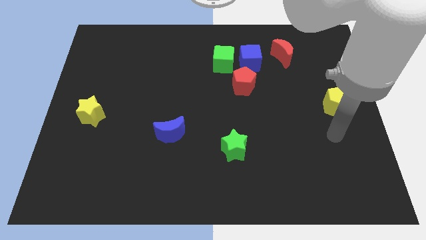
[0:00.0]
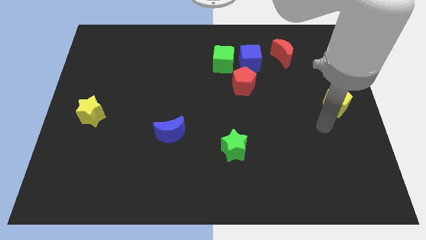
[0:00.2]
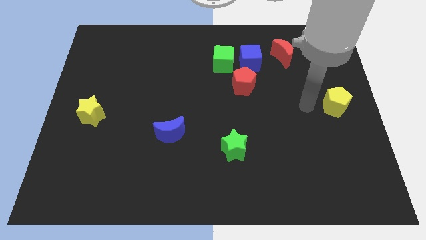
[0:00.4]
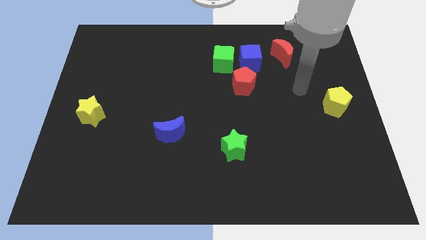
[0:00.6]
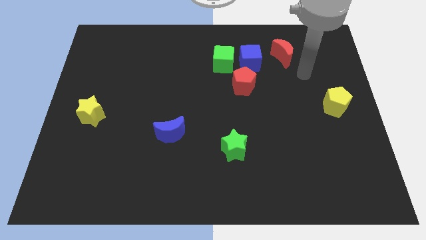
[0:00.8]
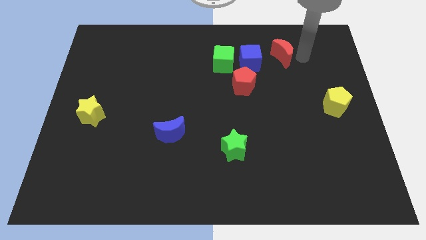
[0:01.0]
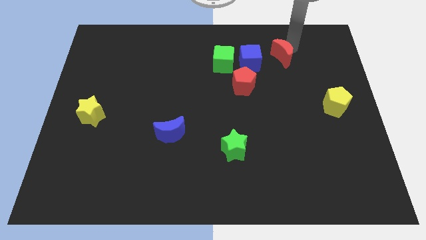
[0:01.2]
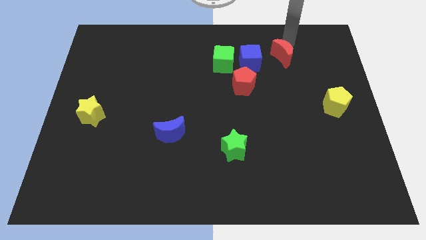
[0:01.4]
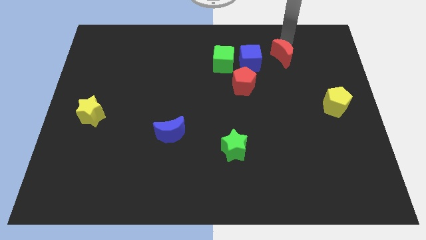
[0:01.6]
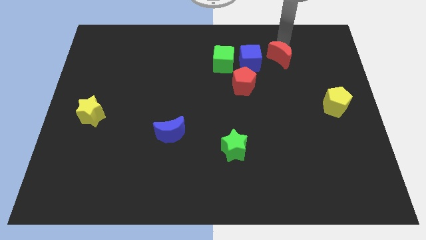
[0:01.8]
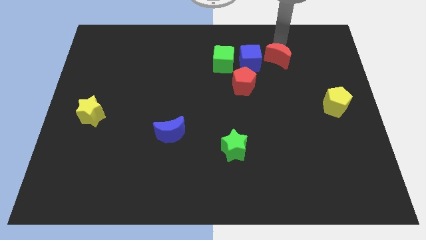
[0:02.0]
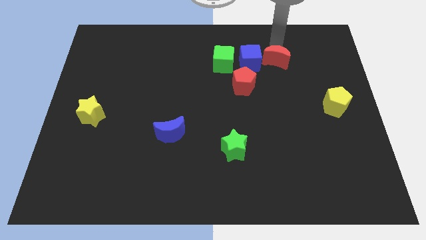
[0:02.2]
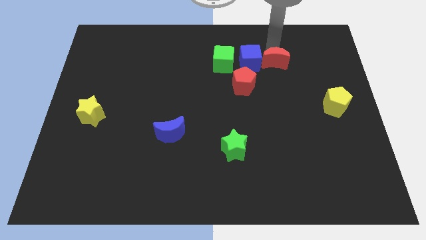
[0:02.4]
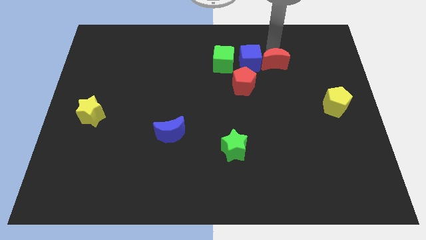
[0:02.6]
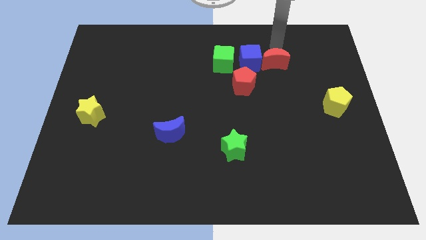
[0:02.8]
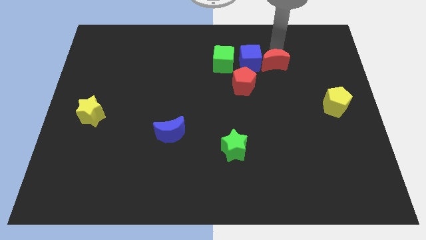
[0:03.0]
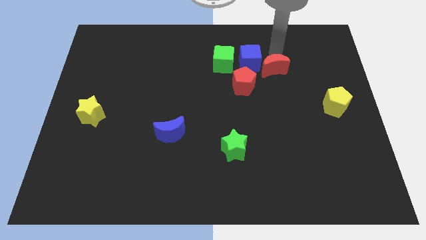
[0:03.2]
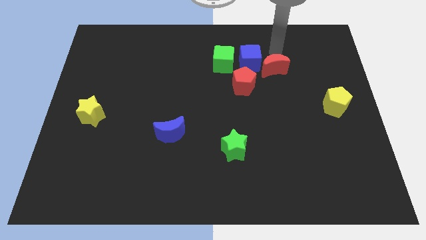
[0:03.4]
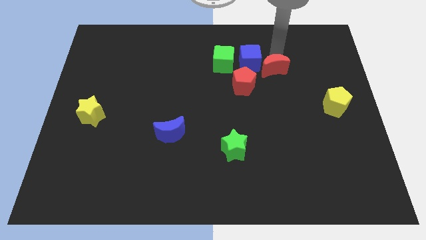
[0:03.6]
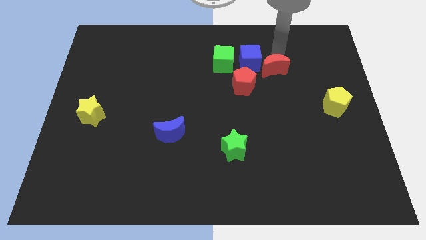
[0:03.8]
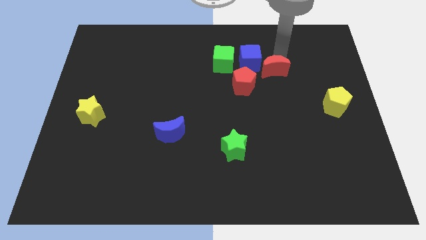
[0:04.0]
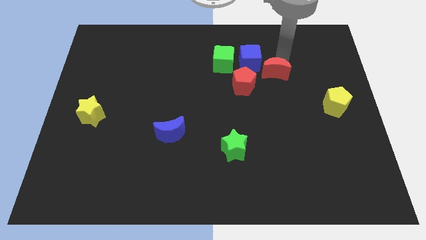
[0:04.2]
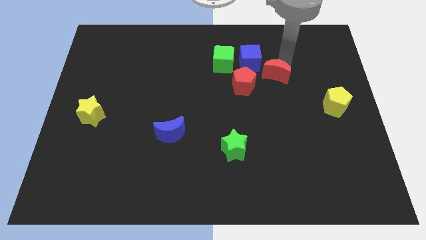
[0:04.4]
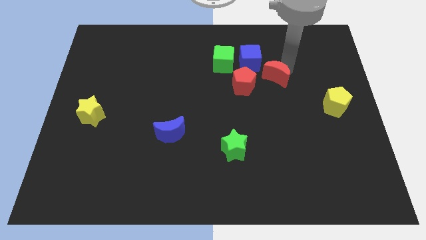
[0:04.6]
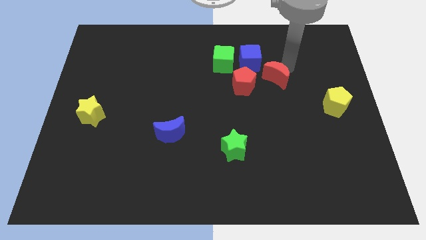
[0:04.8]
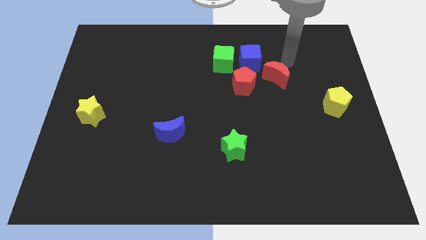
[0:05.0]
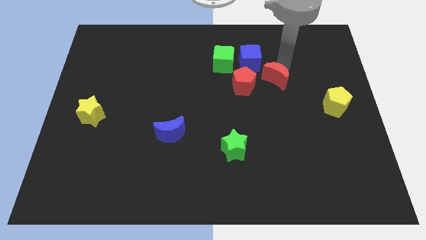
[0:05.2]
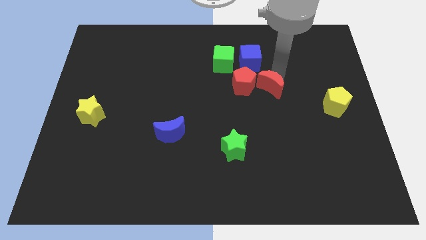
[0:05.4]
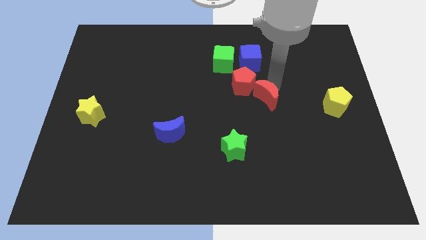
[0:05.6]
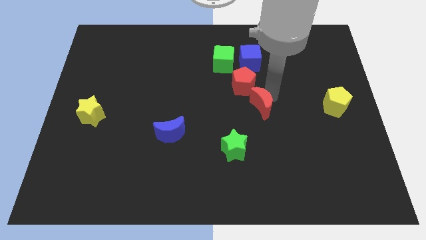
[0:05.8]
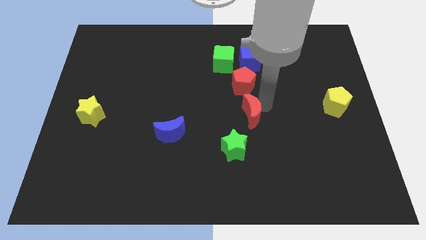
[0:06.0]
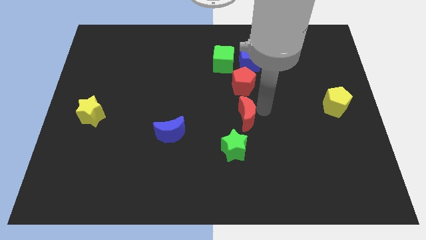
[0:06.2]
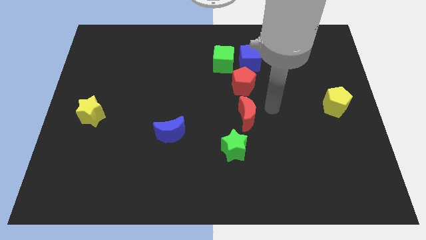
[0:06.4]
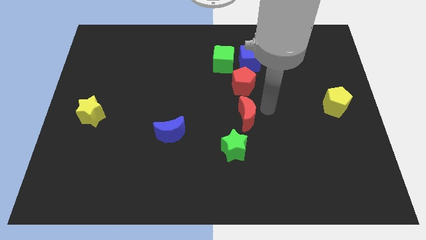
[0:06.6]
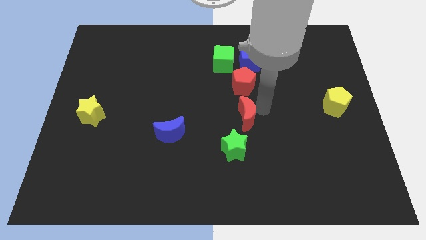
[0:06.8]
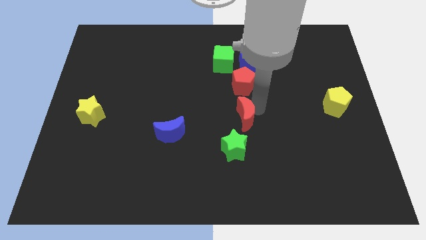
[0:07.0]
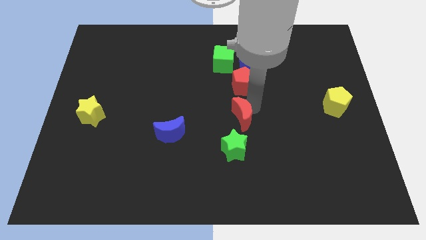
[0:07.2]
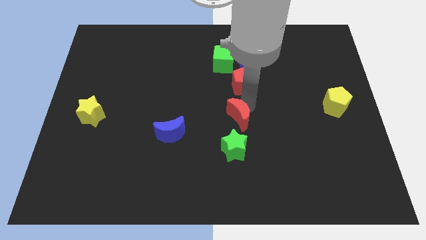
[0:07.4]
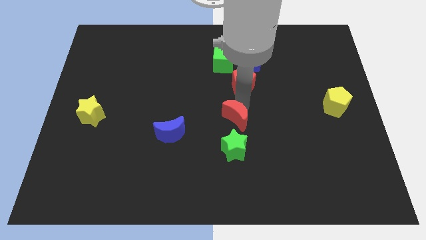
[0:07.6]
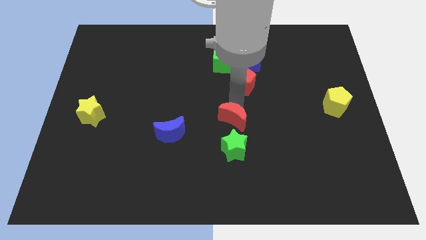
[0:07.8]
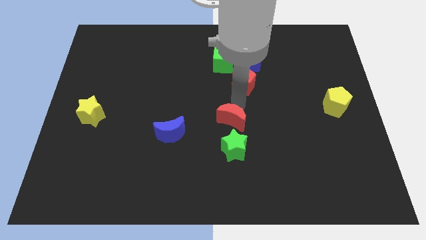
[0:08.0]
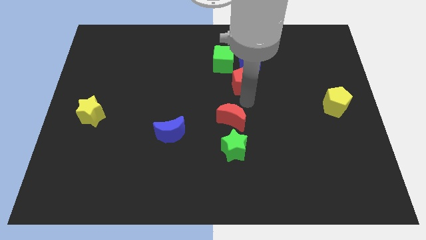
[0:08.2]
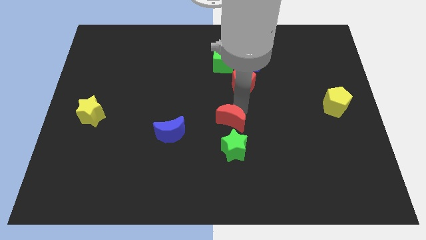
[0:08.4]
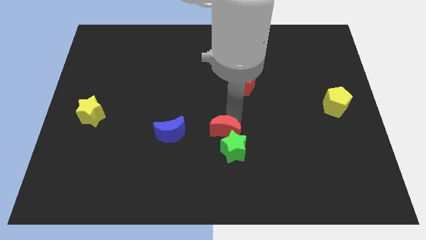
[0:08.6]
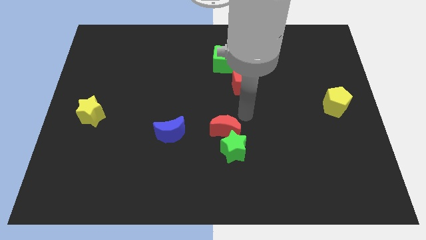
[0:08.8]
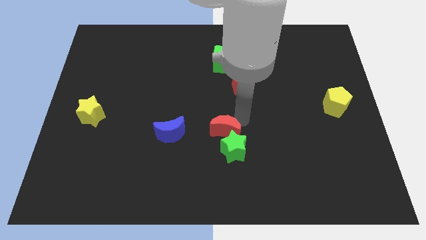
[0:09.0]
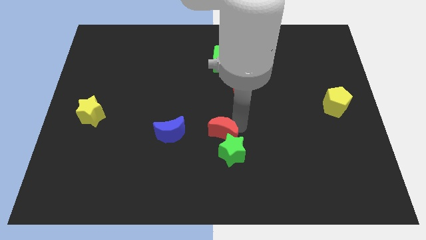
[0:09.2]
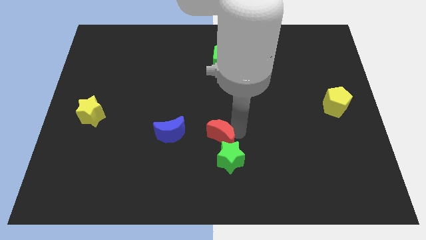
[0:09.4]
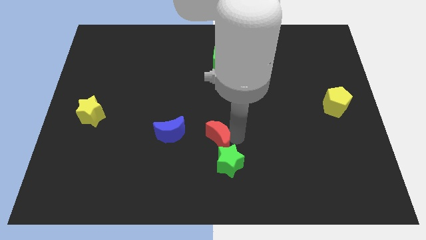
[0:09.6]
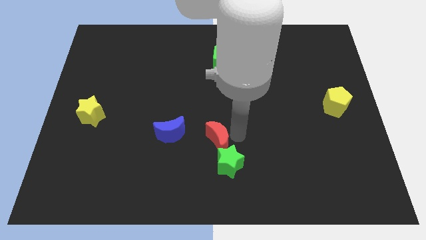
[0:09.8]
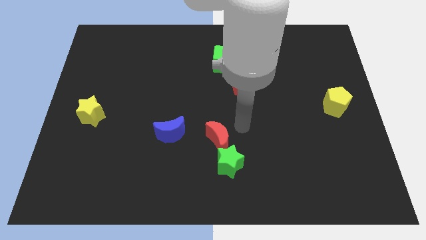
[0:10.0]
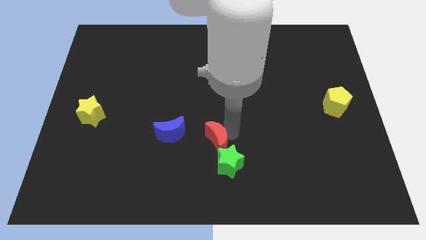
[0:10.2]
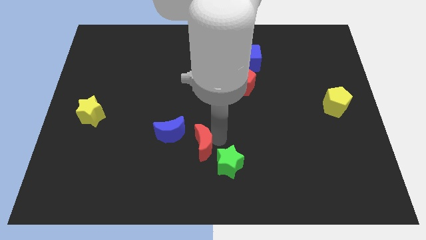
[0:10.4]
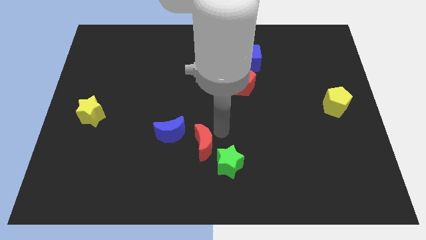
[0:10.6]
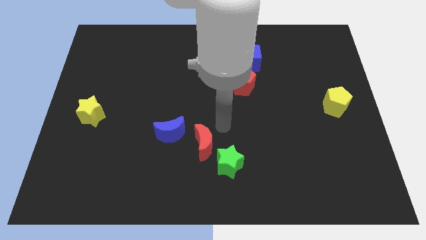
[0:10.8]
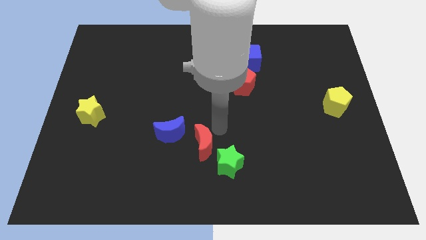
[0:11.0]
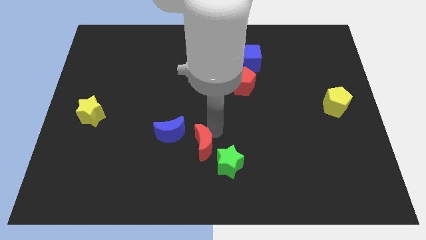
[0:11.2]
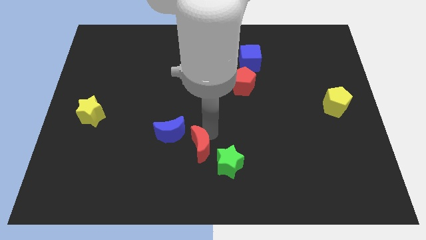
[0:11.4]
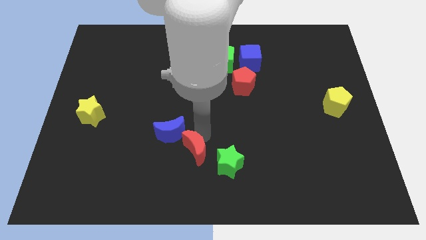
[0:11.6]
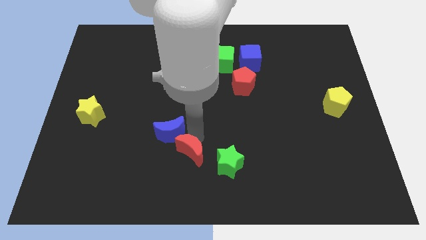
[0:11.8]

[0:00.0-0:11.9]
move the red moon to the bottom side of the blue moon
